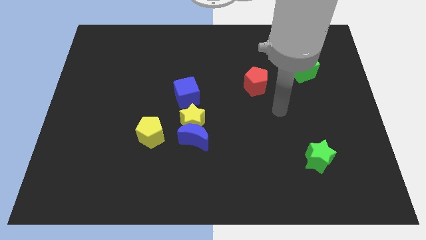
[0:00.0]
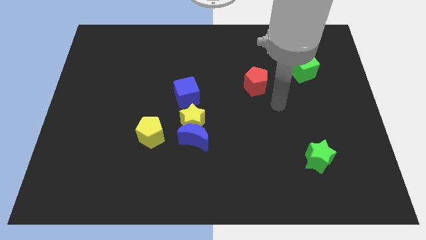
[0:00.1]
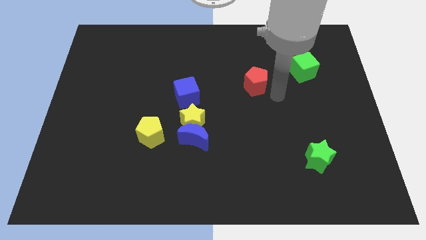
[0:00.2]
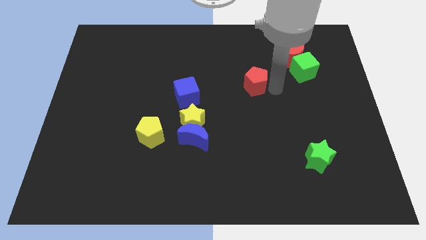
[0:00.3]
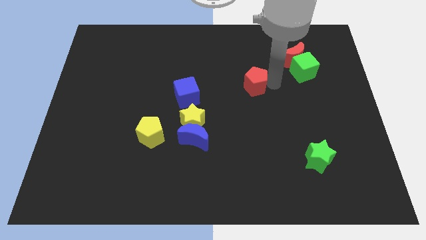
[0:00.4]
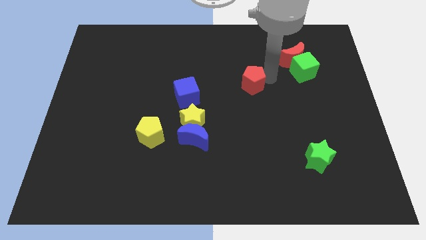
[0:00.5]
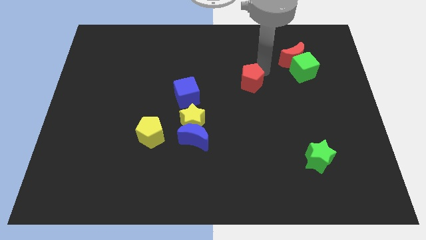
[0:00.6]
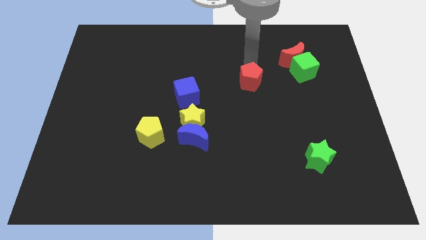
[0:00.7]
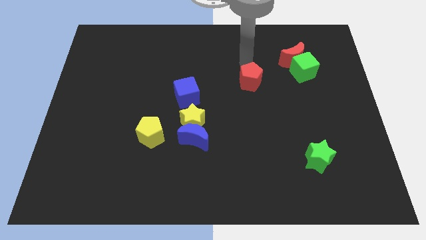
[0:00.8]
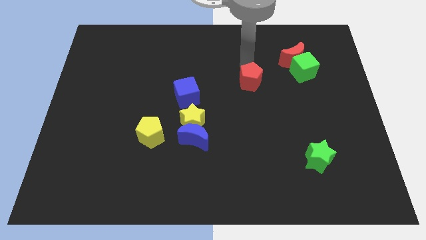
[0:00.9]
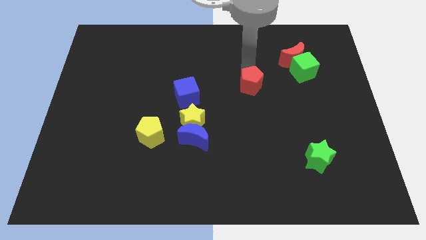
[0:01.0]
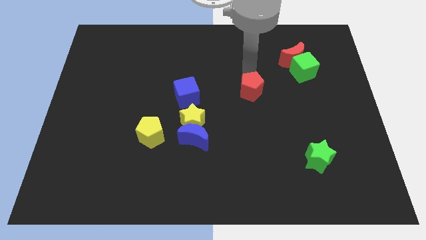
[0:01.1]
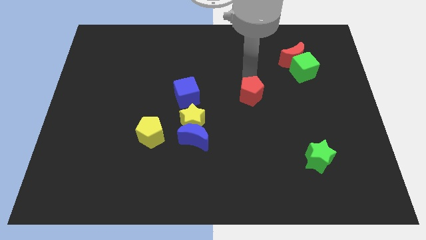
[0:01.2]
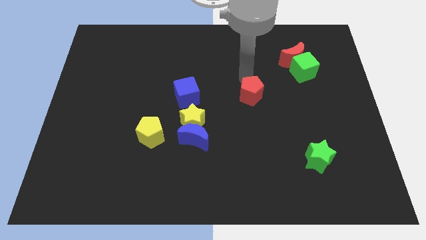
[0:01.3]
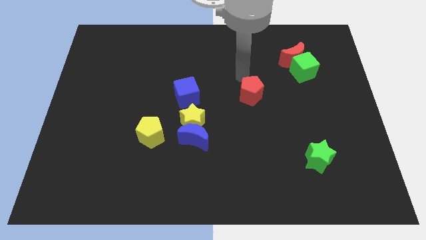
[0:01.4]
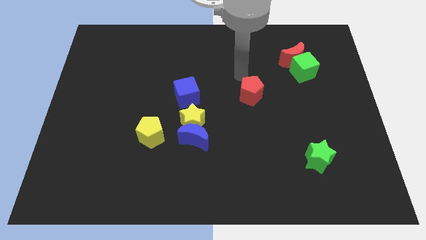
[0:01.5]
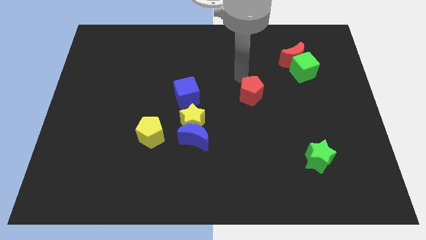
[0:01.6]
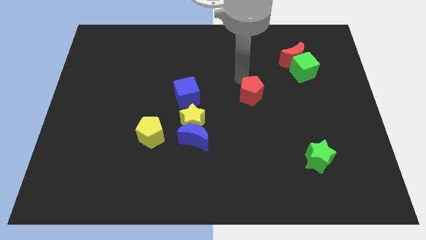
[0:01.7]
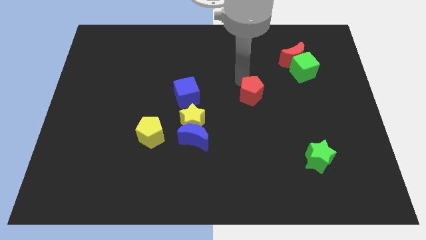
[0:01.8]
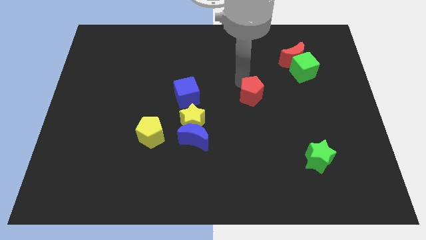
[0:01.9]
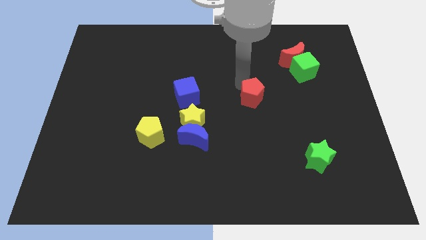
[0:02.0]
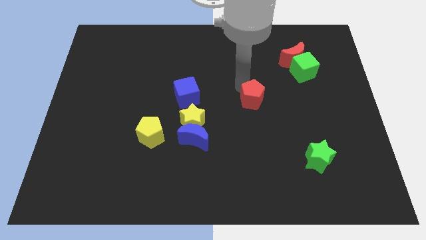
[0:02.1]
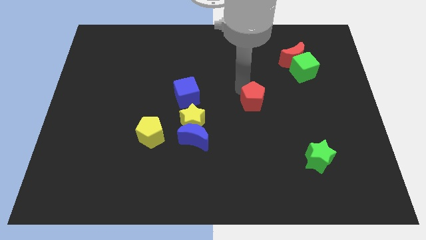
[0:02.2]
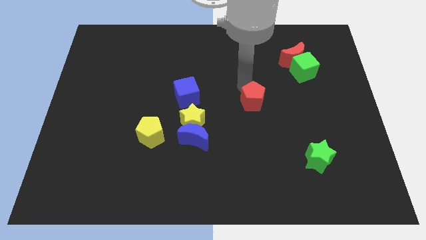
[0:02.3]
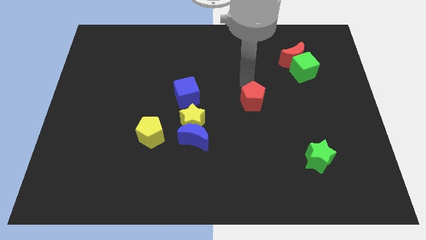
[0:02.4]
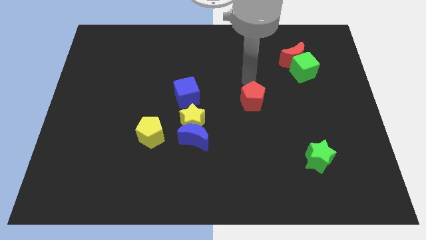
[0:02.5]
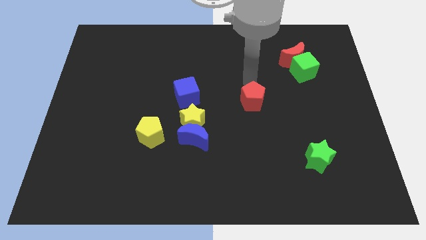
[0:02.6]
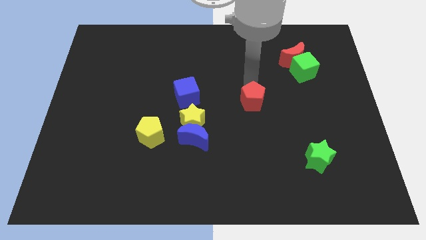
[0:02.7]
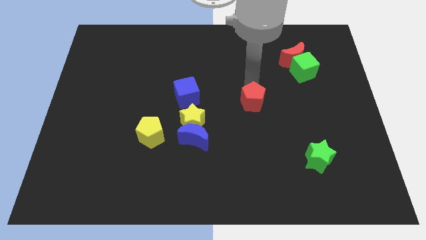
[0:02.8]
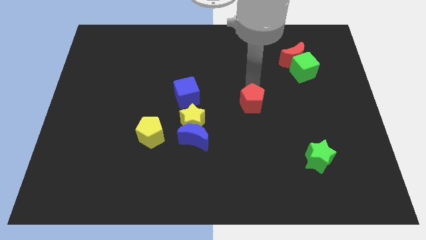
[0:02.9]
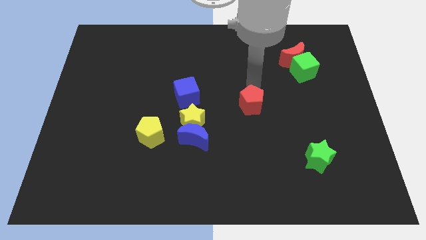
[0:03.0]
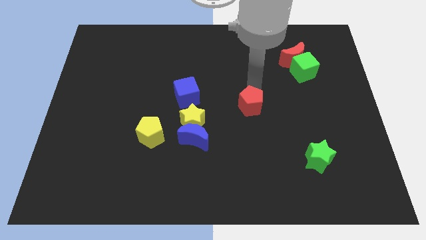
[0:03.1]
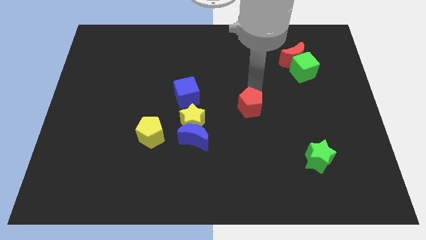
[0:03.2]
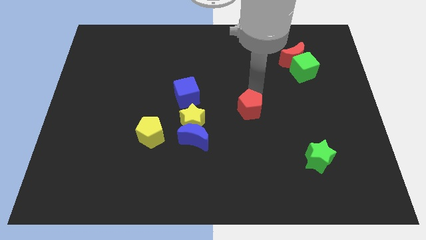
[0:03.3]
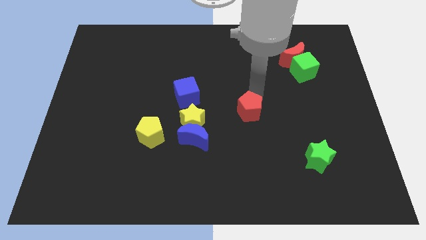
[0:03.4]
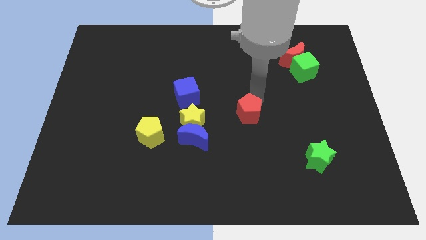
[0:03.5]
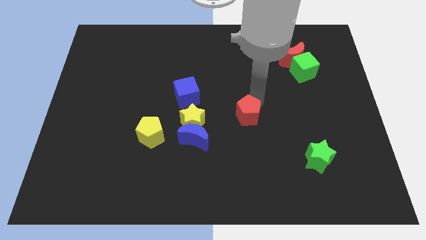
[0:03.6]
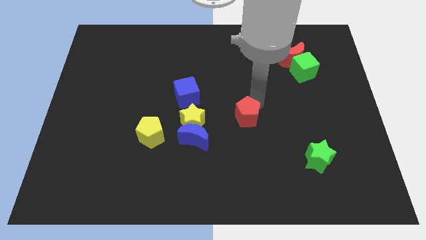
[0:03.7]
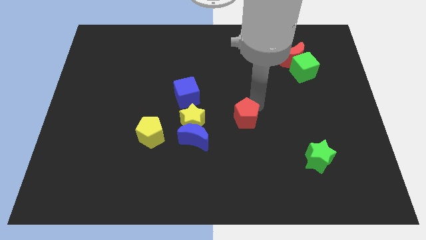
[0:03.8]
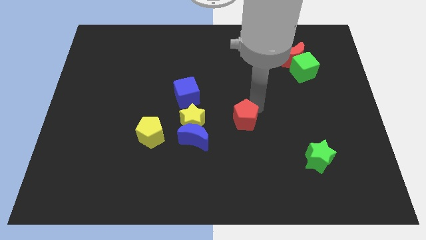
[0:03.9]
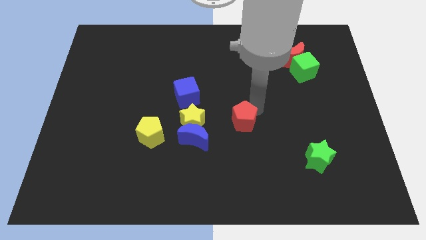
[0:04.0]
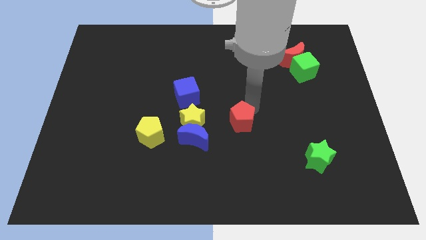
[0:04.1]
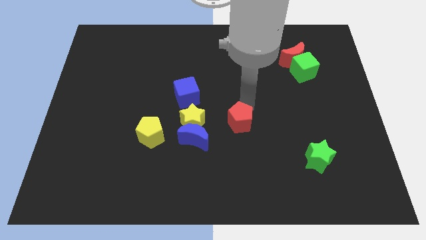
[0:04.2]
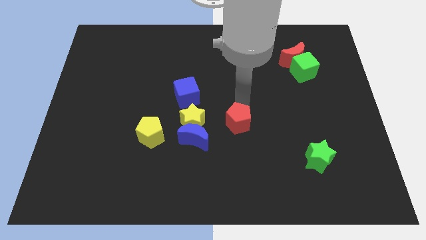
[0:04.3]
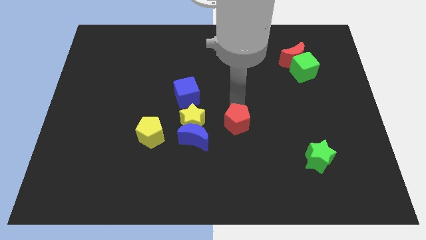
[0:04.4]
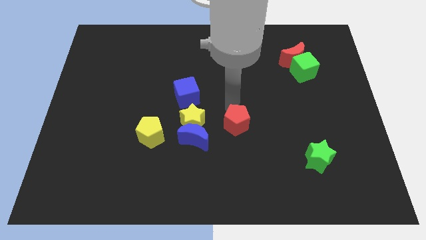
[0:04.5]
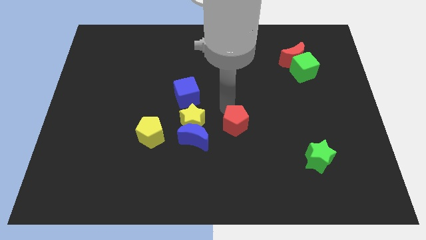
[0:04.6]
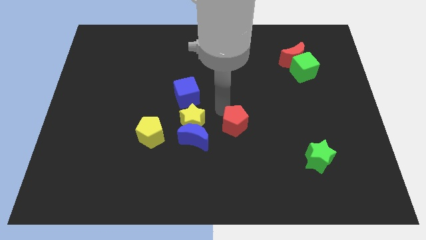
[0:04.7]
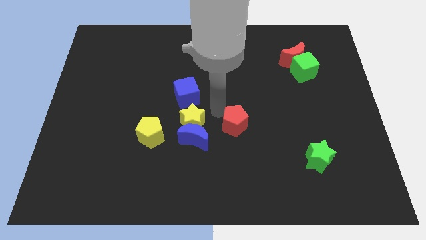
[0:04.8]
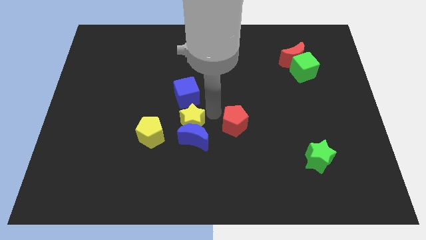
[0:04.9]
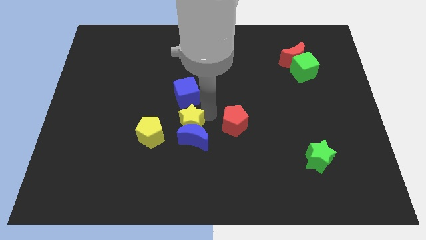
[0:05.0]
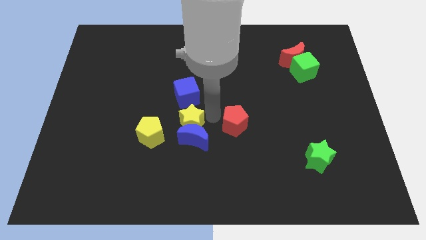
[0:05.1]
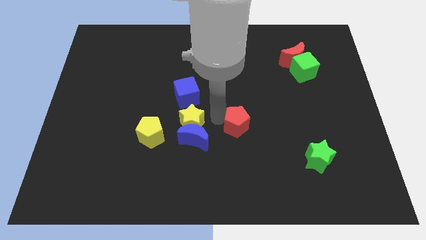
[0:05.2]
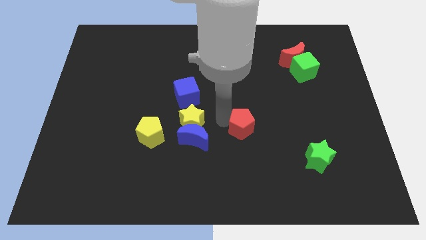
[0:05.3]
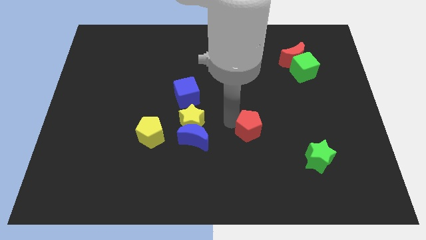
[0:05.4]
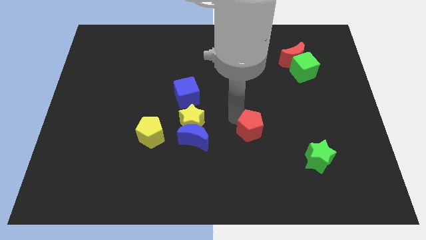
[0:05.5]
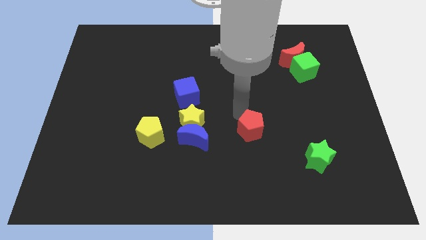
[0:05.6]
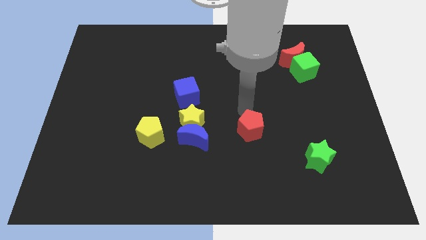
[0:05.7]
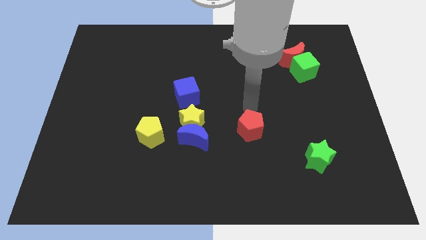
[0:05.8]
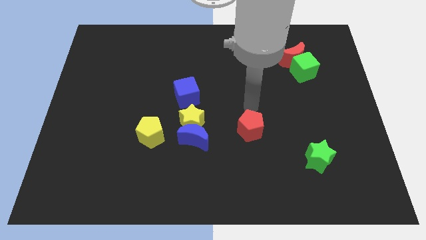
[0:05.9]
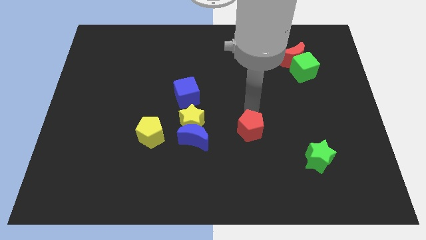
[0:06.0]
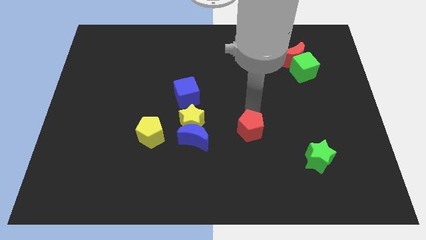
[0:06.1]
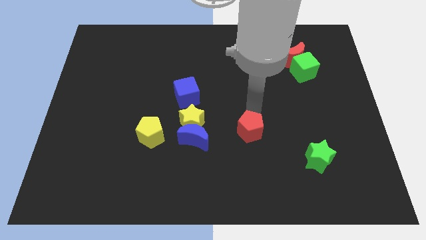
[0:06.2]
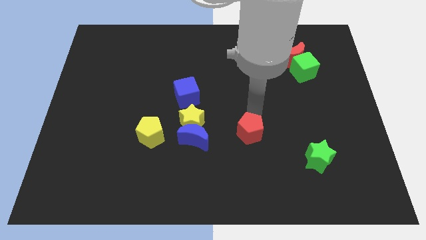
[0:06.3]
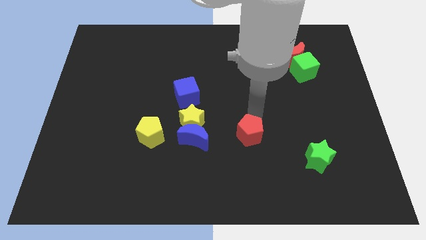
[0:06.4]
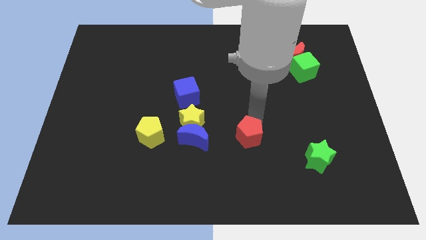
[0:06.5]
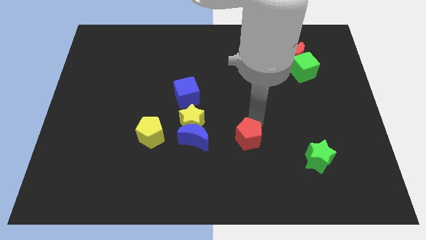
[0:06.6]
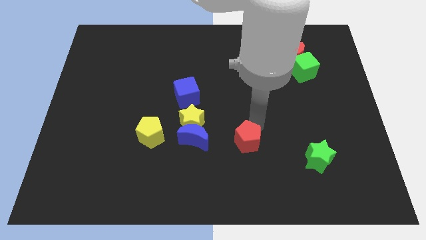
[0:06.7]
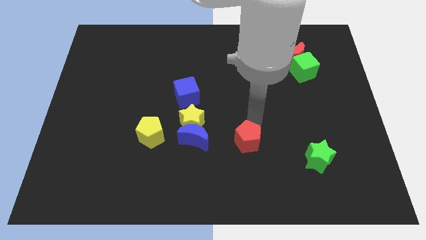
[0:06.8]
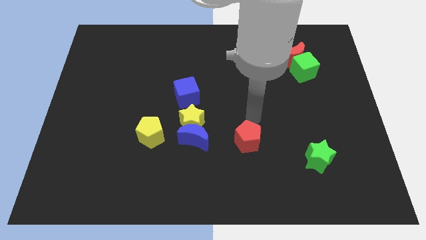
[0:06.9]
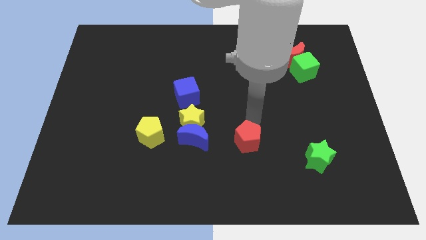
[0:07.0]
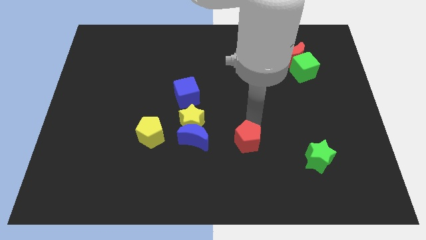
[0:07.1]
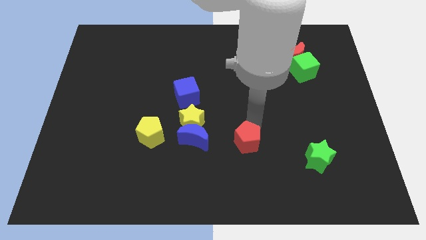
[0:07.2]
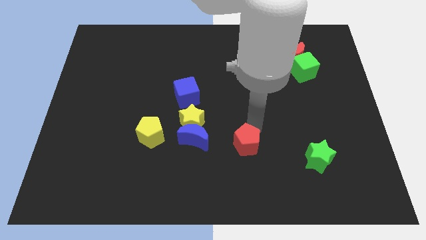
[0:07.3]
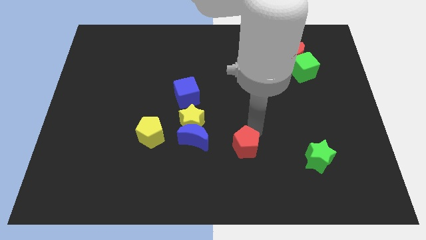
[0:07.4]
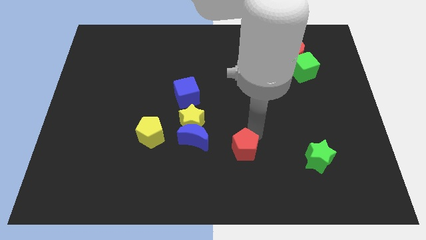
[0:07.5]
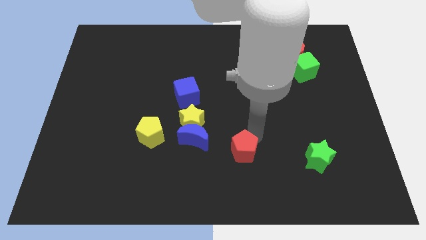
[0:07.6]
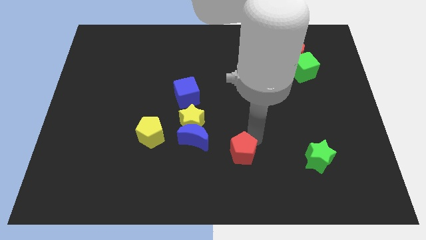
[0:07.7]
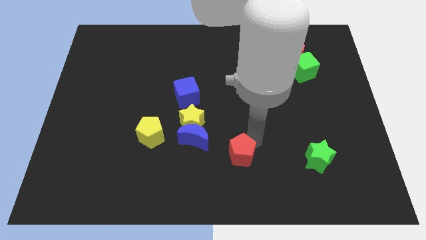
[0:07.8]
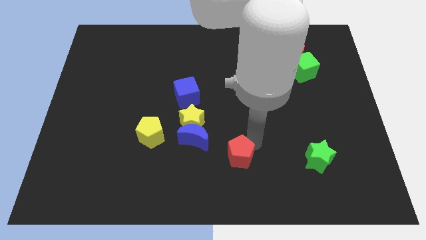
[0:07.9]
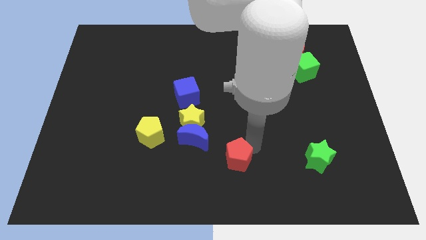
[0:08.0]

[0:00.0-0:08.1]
move the red pentagon to the bottom
